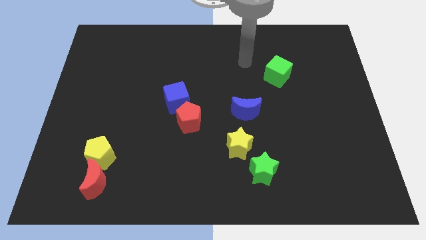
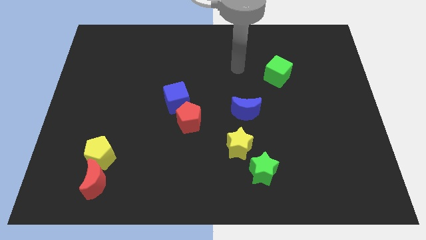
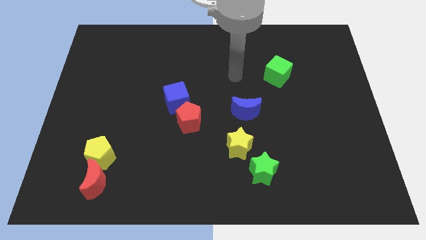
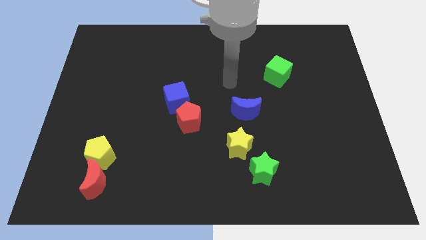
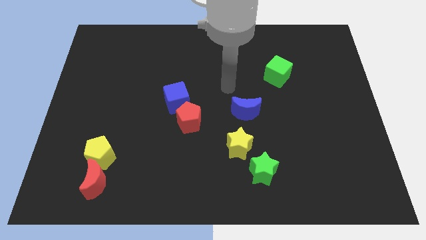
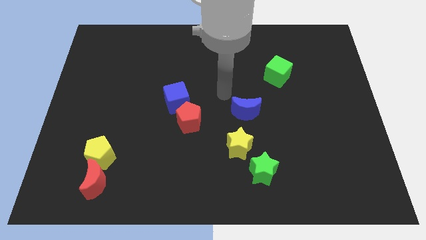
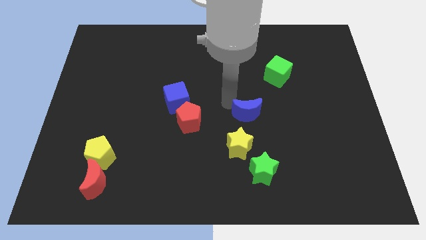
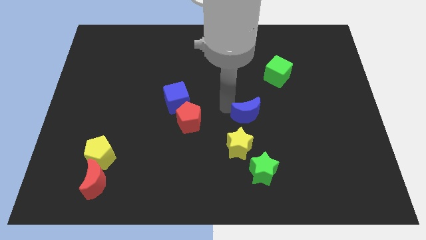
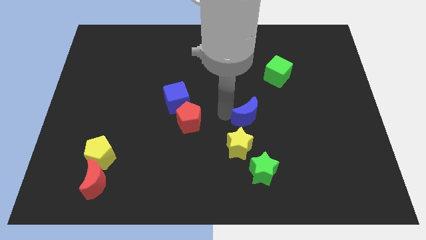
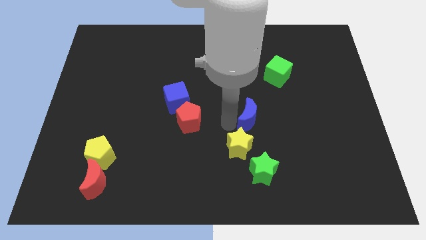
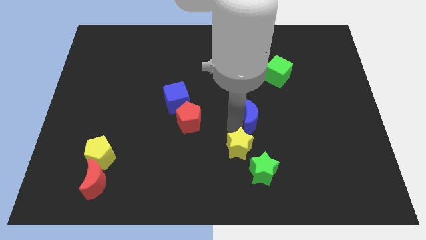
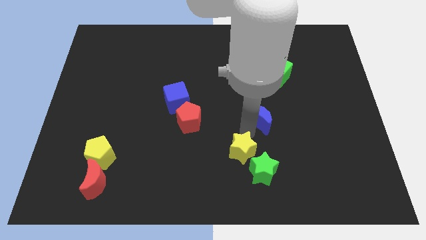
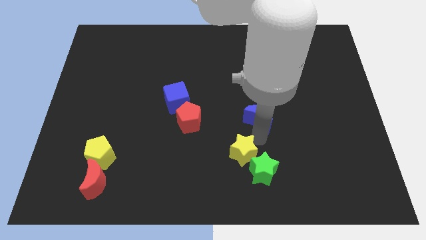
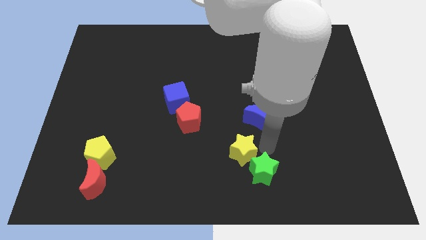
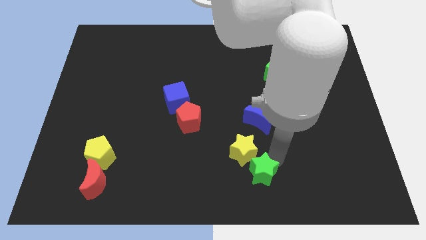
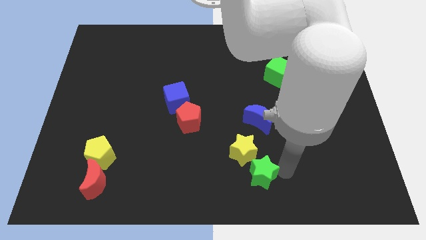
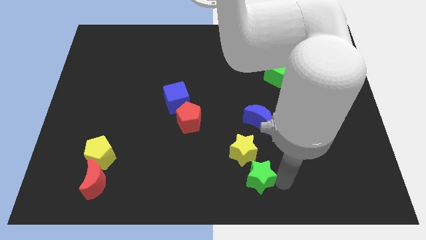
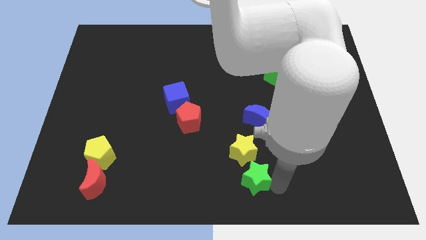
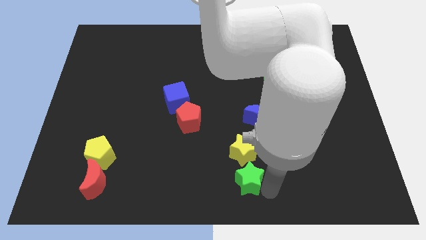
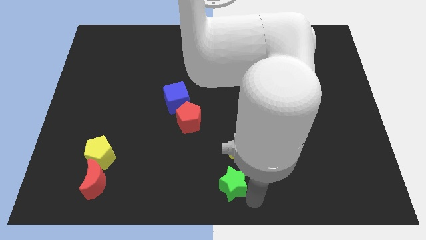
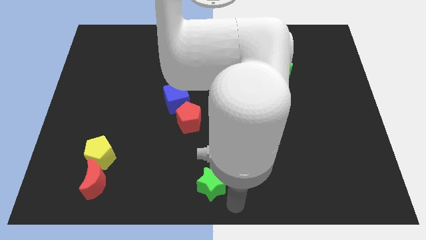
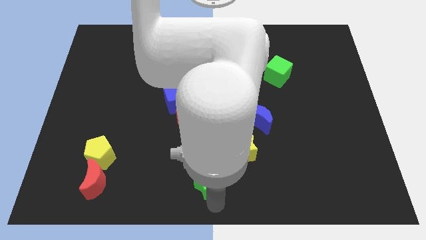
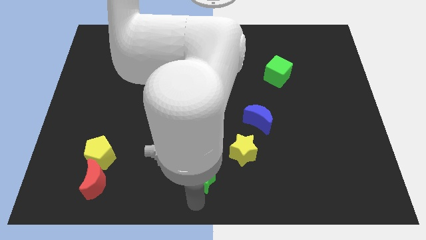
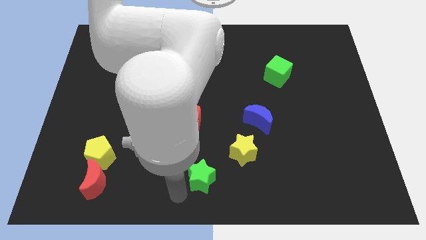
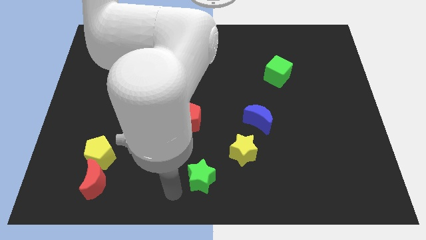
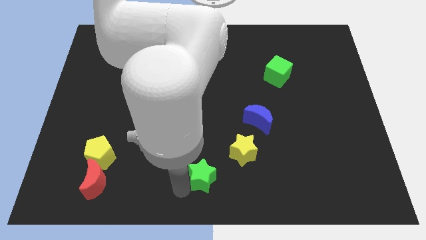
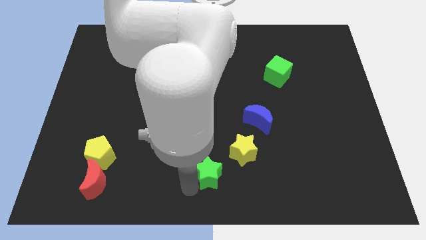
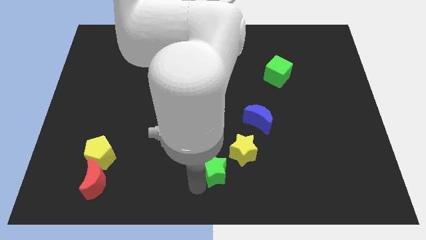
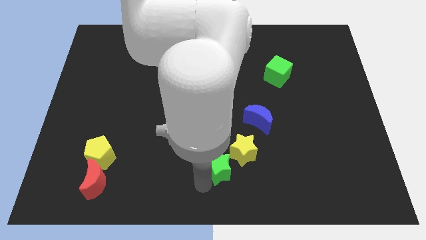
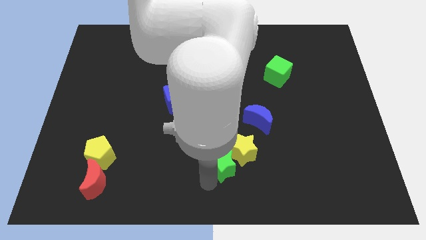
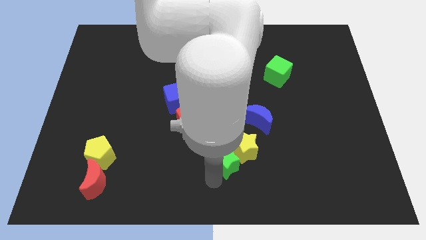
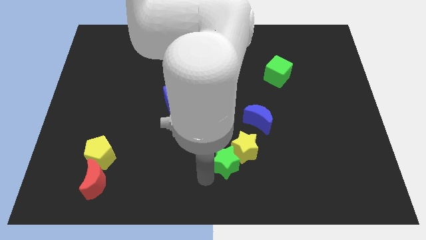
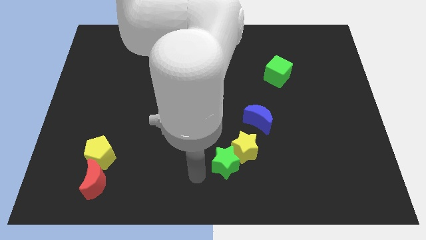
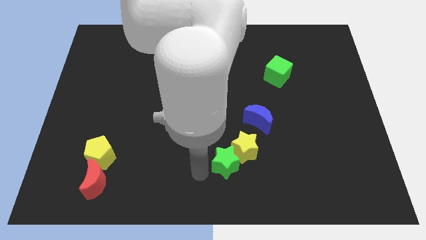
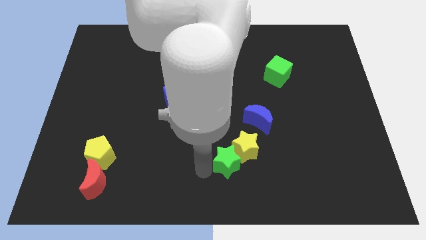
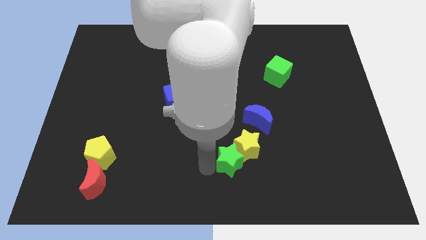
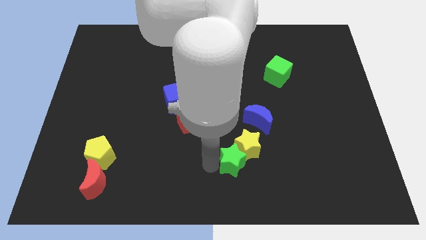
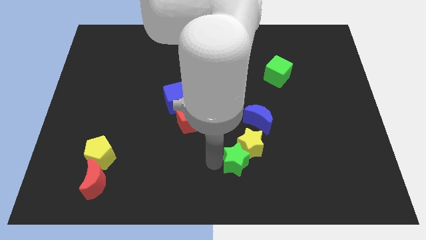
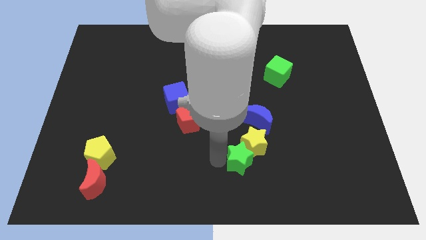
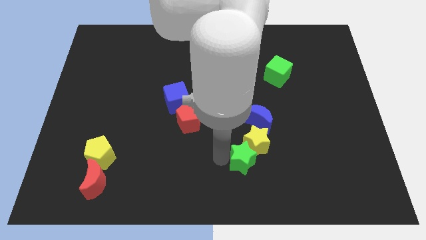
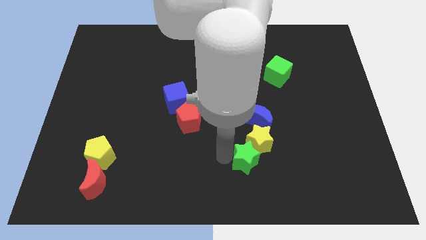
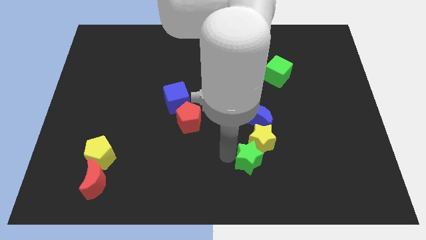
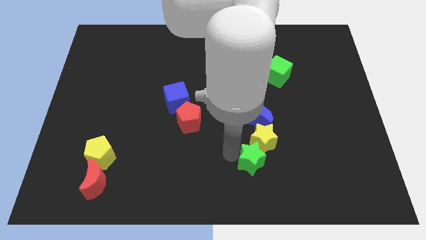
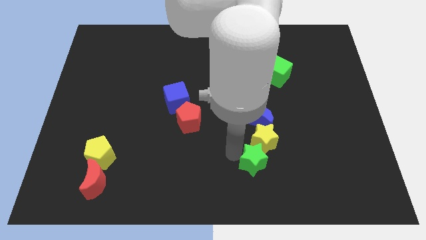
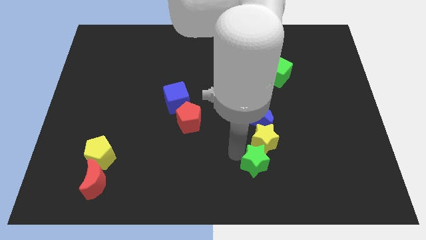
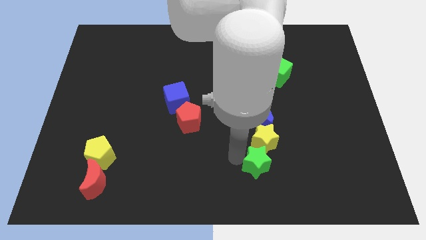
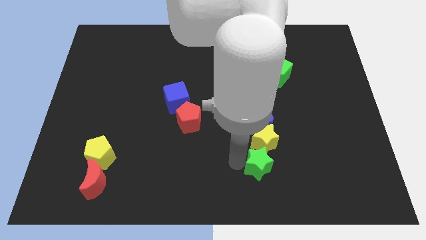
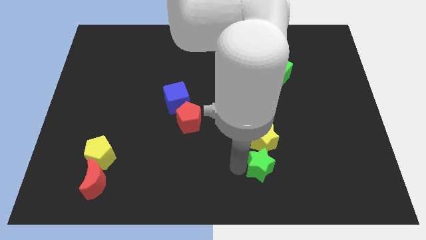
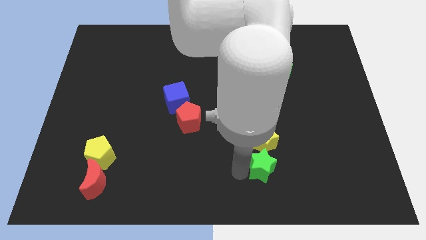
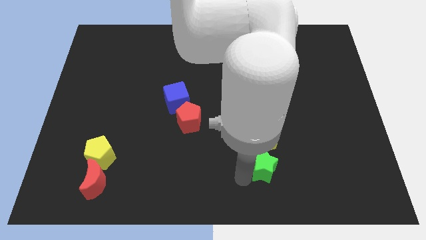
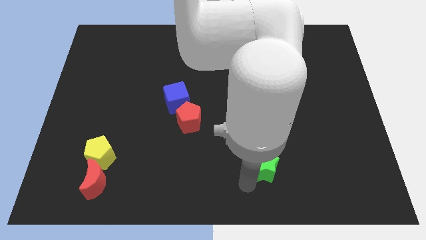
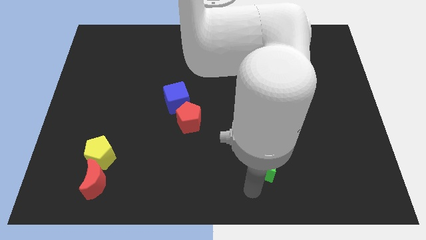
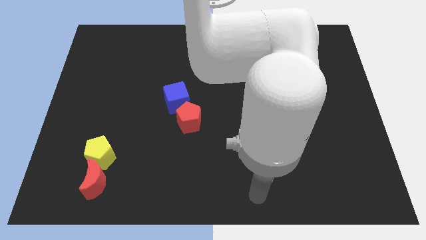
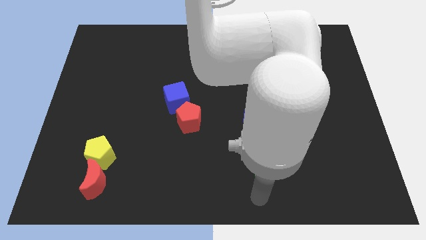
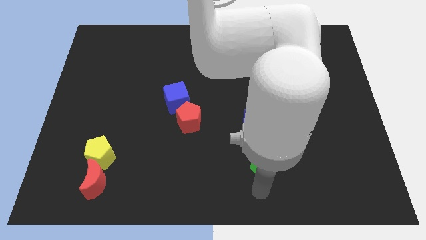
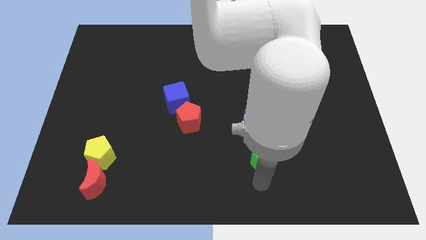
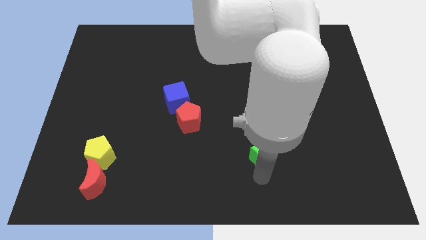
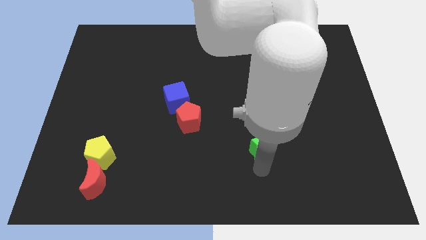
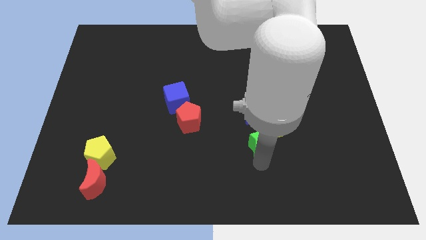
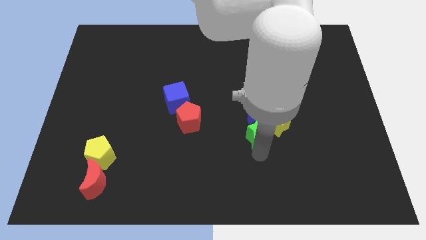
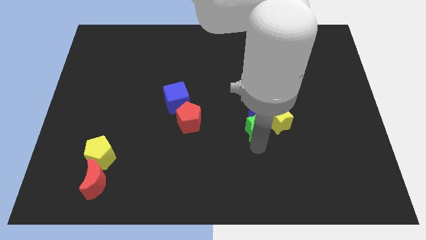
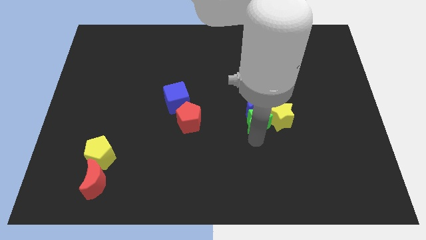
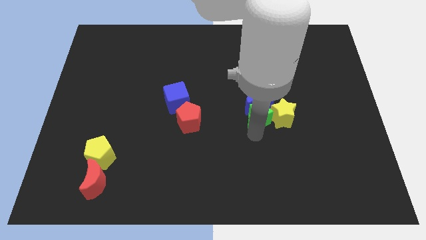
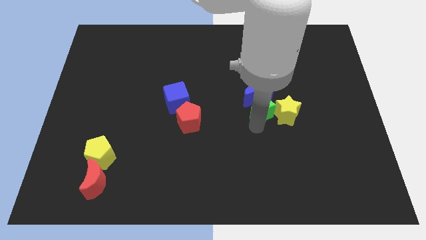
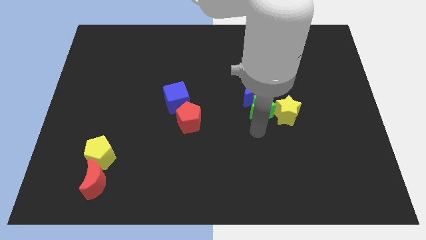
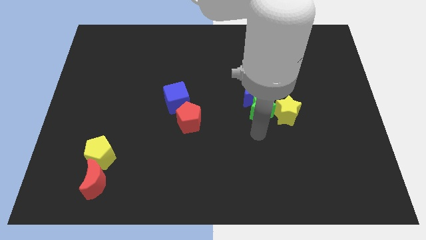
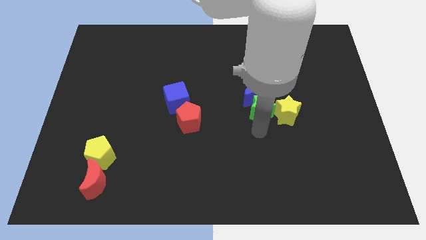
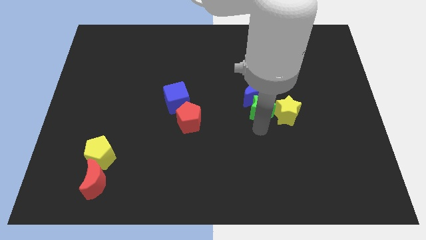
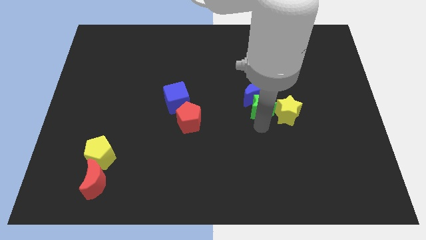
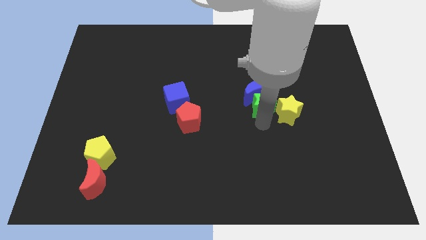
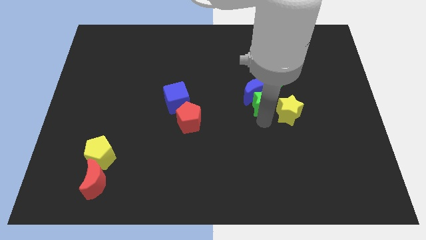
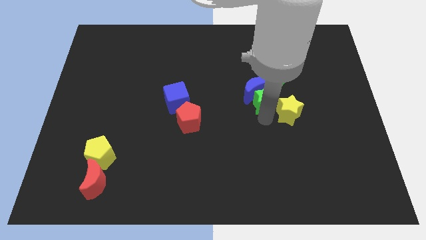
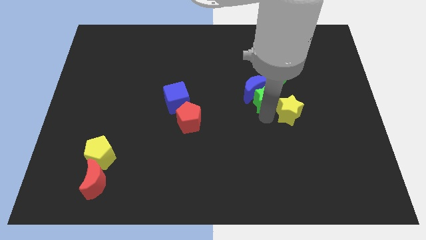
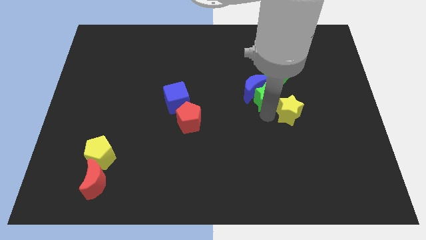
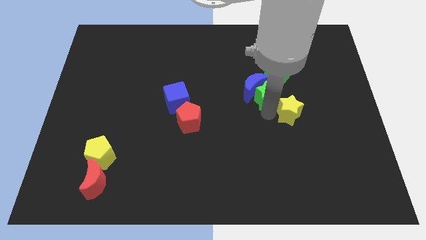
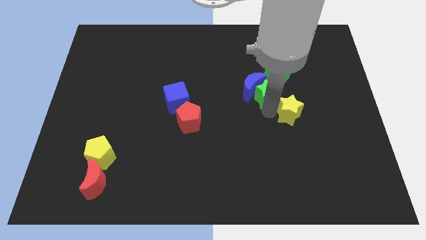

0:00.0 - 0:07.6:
push the green star upwards
